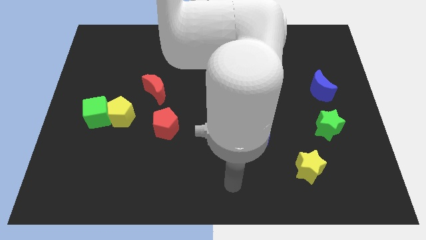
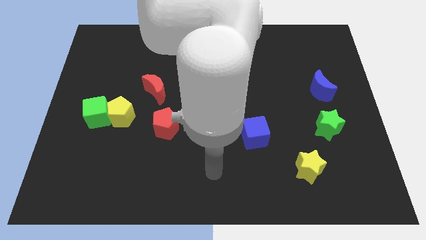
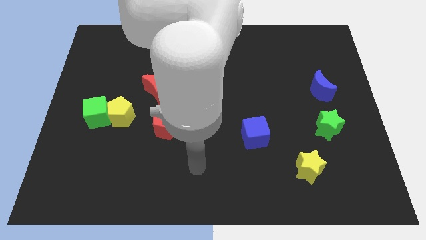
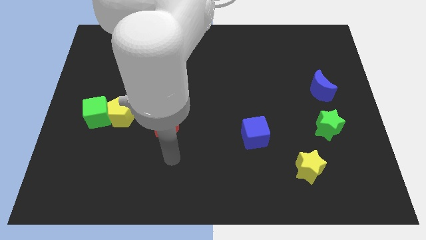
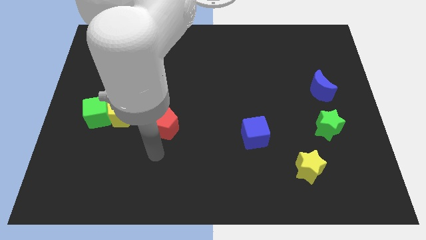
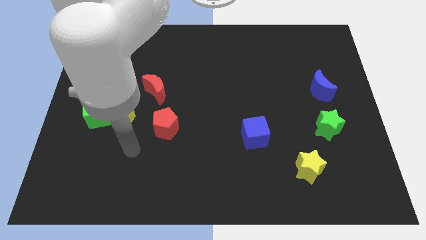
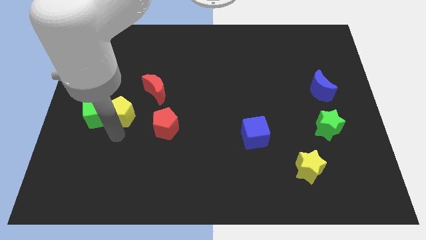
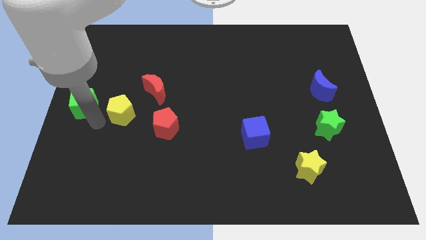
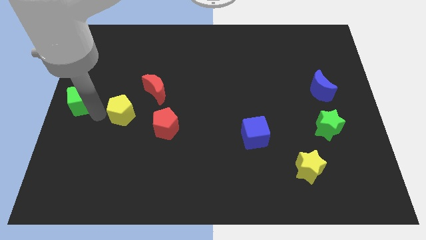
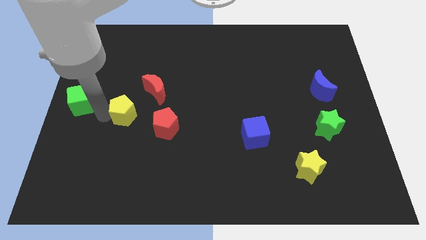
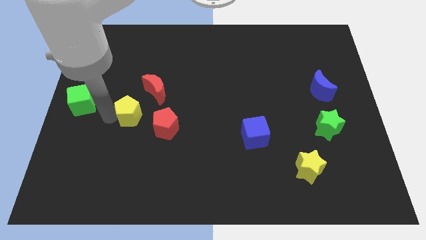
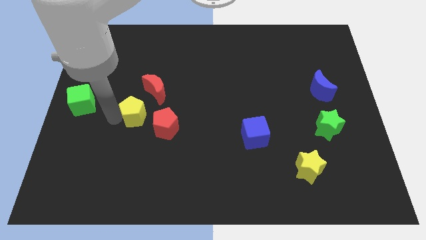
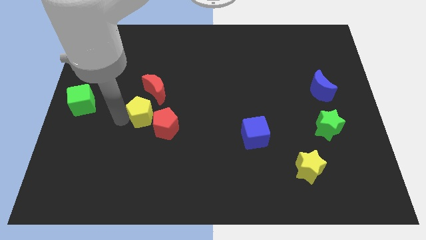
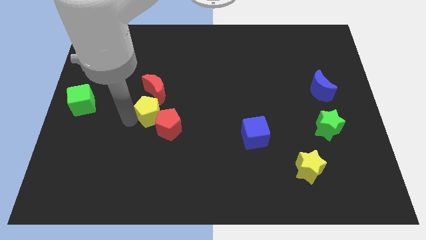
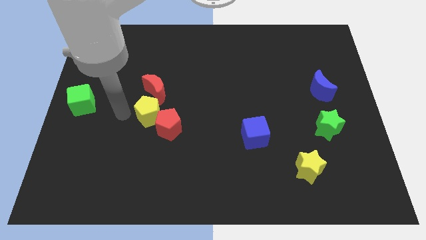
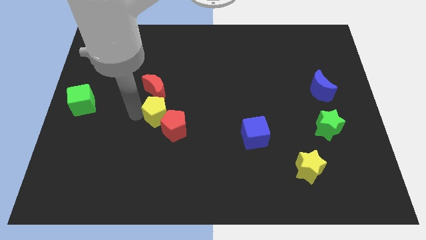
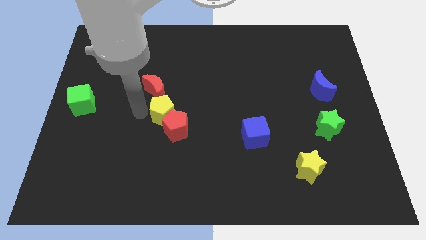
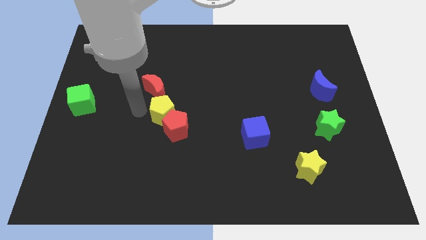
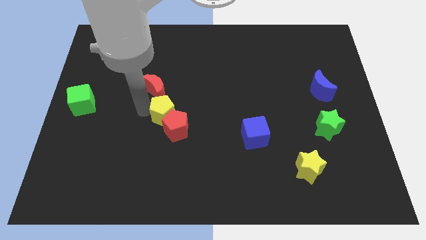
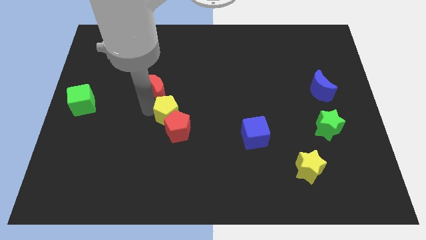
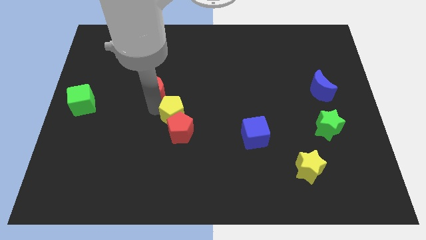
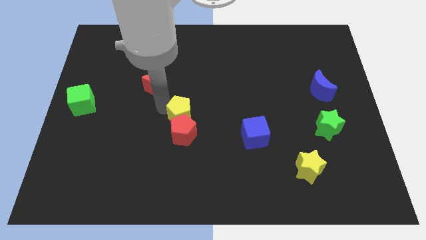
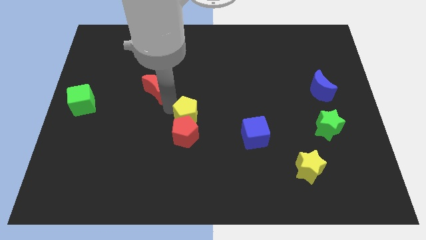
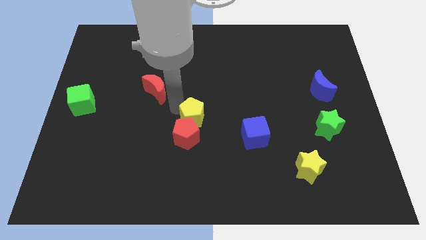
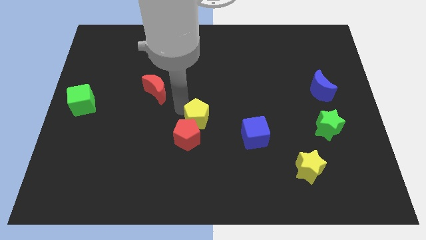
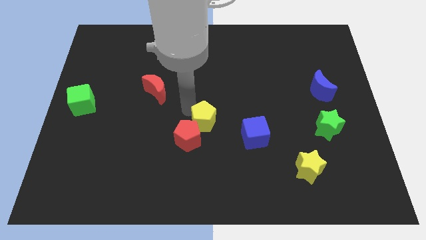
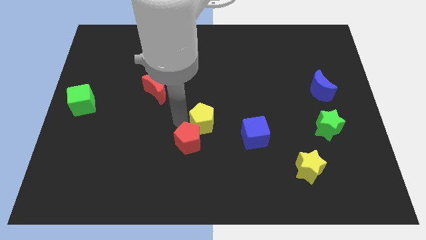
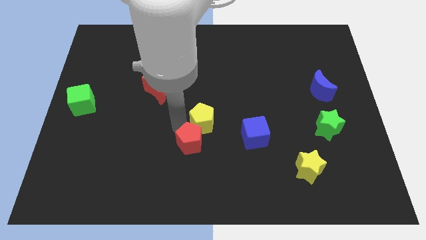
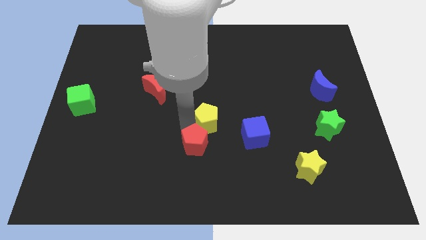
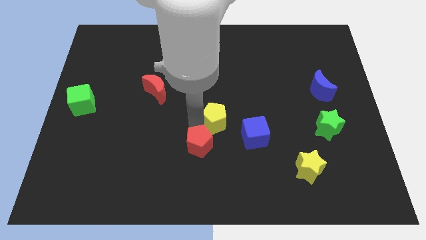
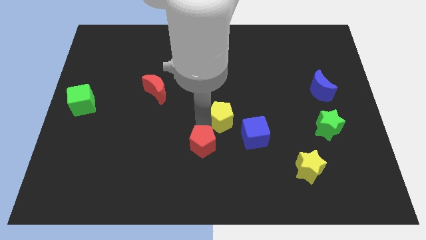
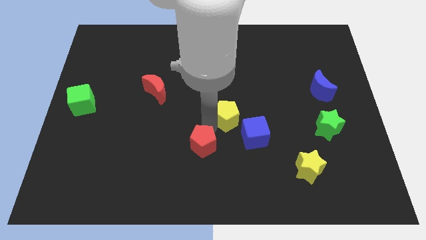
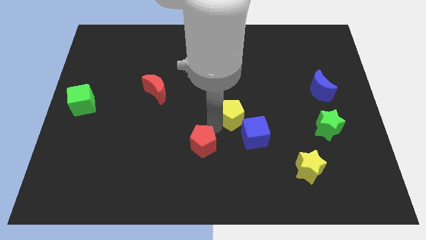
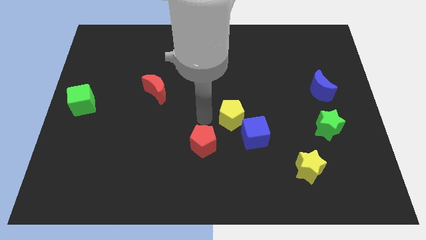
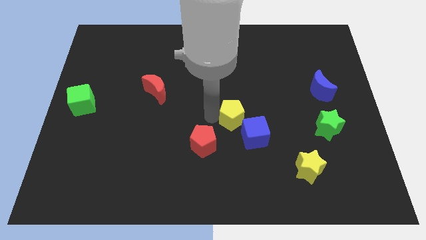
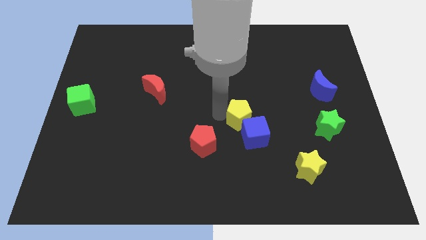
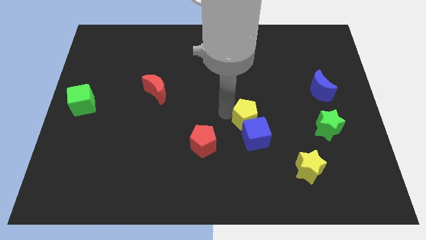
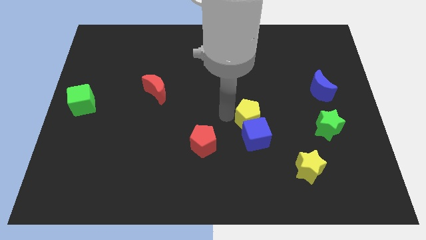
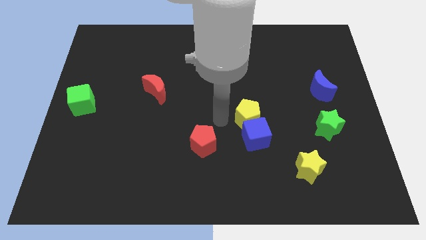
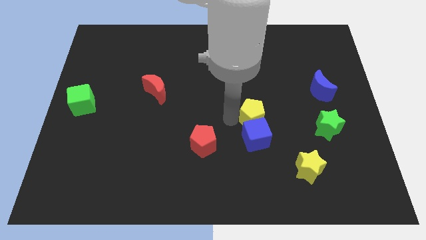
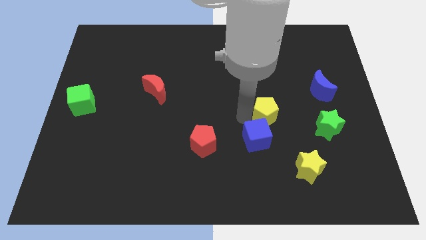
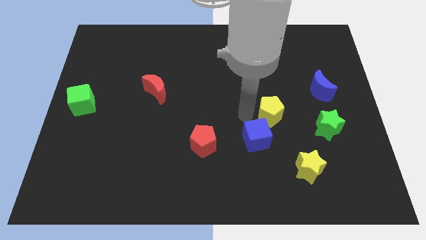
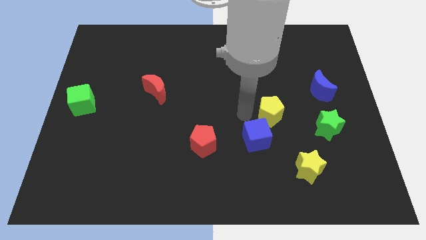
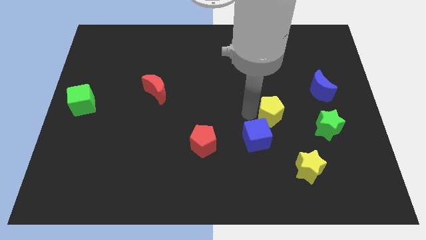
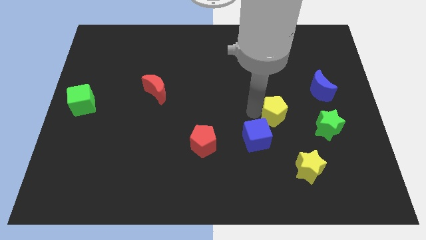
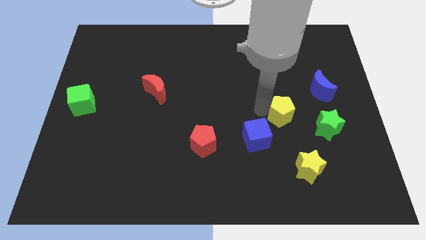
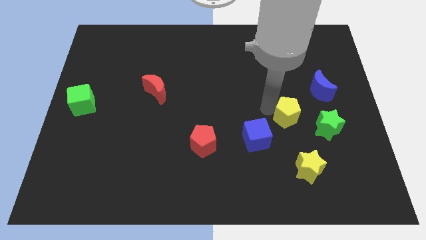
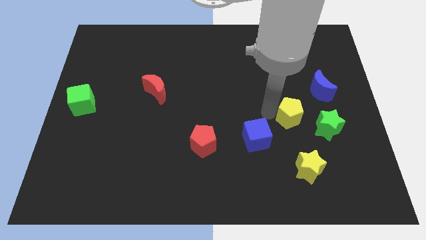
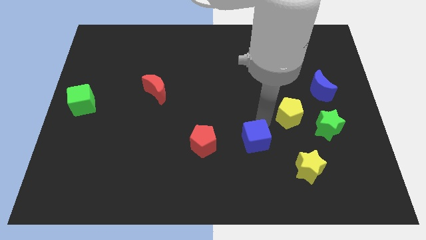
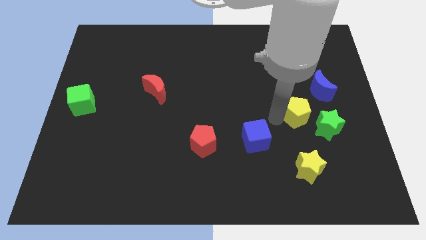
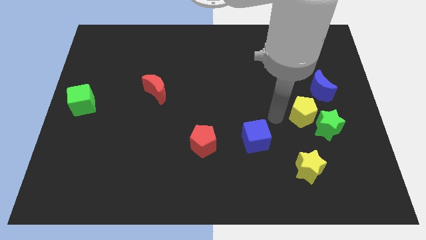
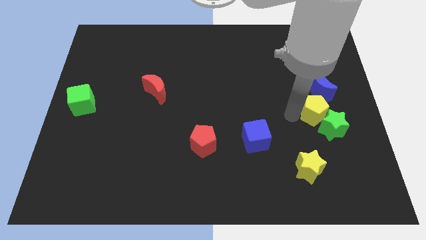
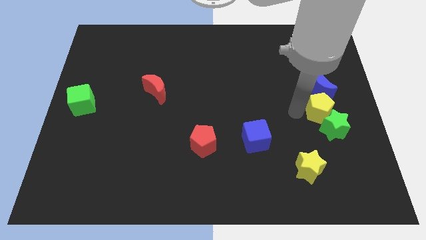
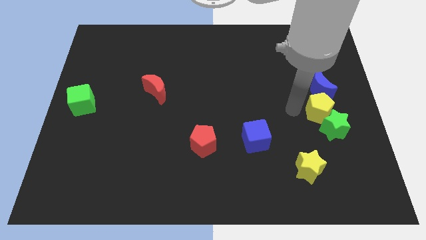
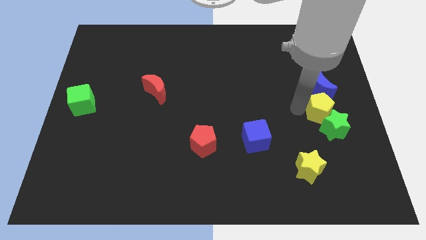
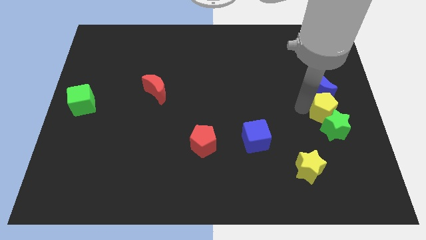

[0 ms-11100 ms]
put the yellow pentagon to the center right

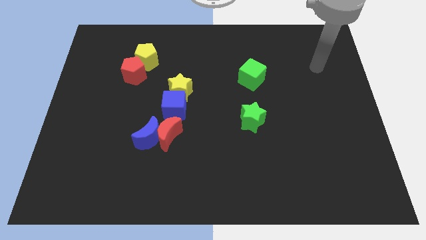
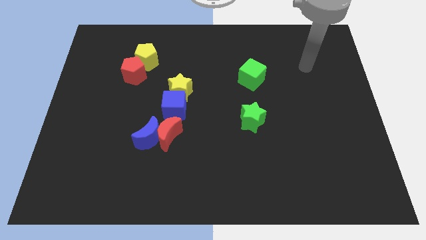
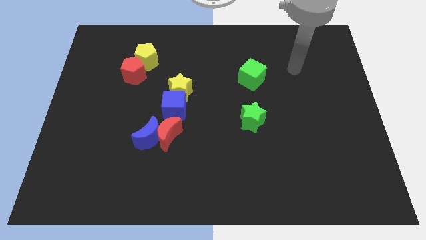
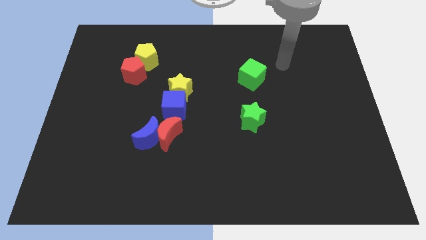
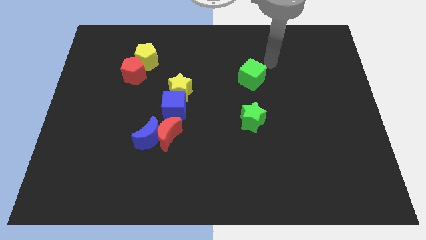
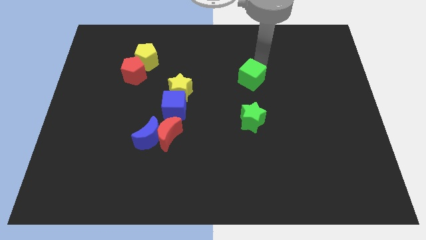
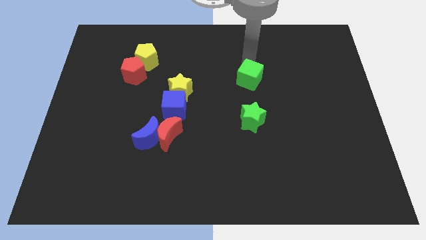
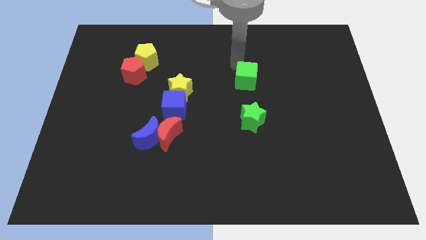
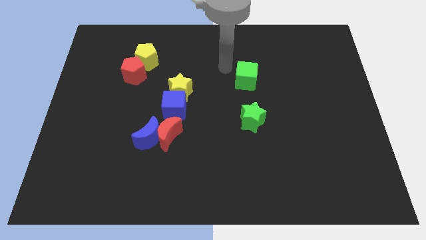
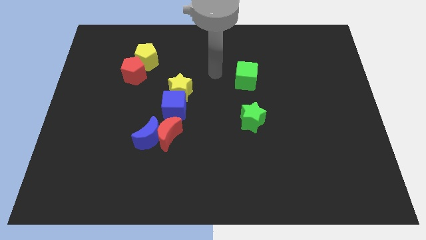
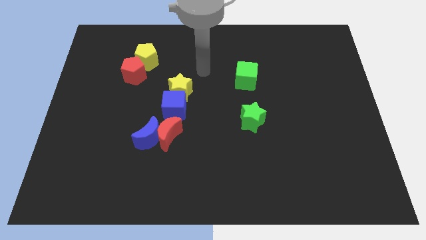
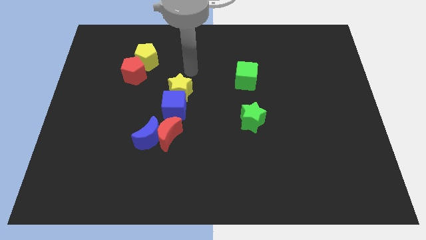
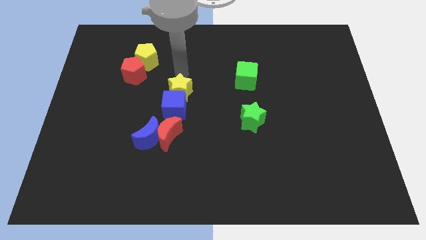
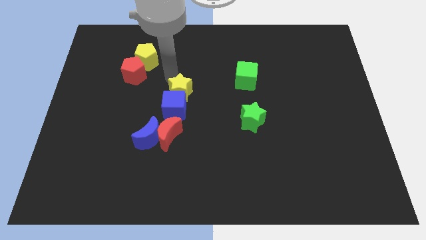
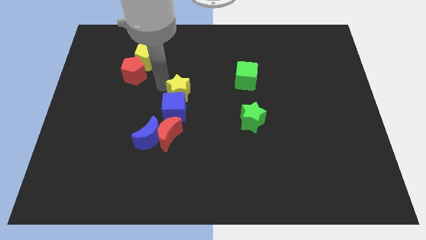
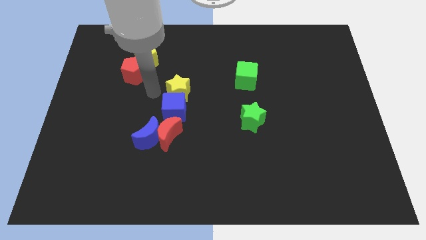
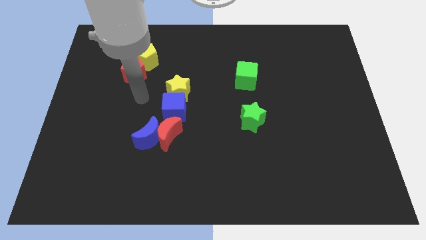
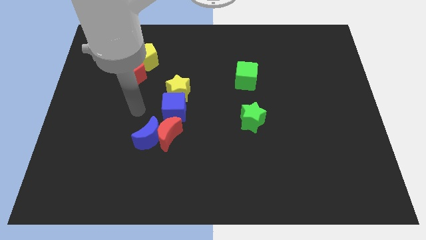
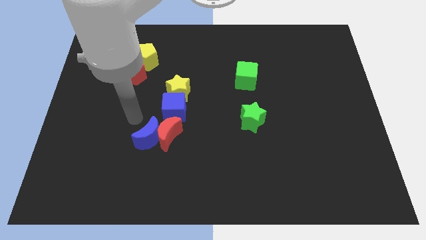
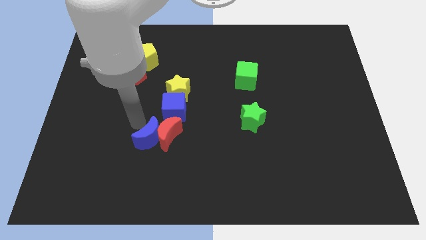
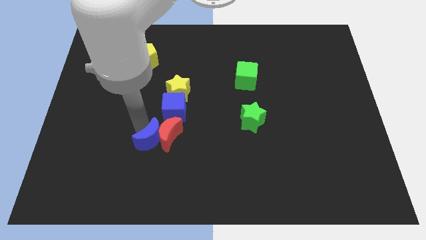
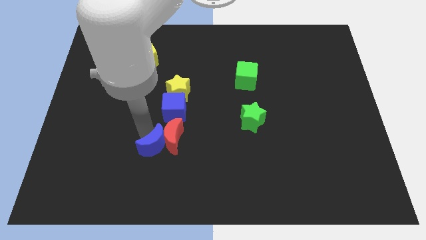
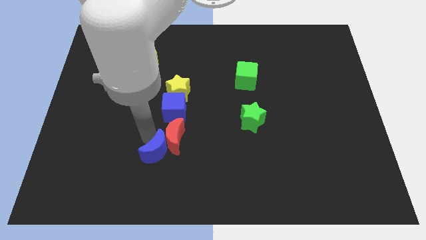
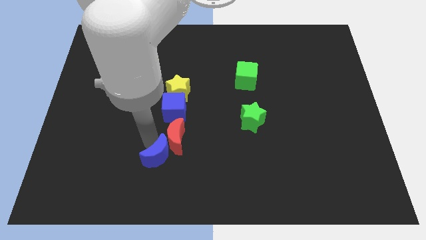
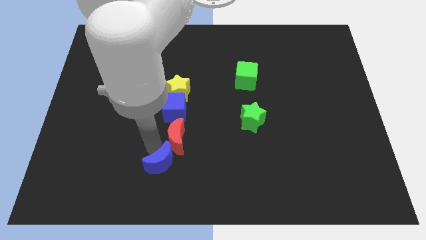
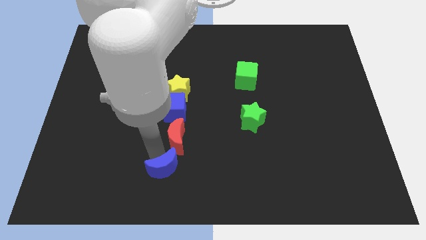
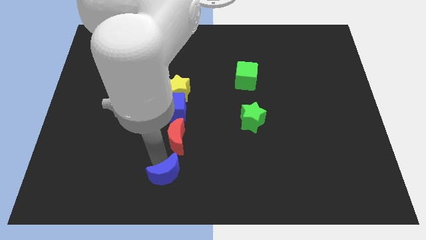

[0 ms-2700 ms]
move the blue moon to the bottom
